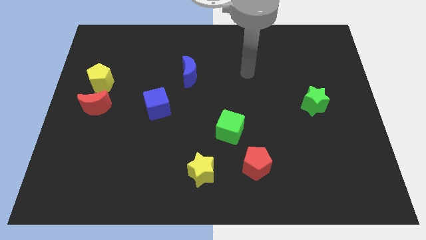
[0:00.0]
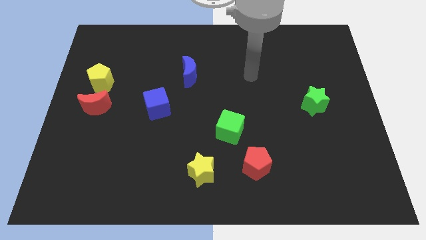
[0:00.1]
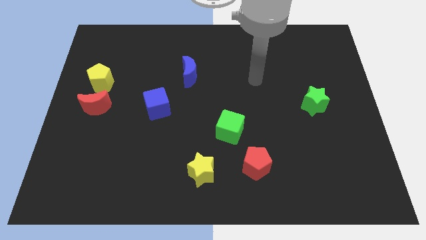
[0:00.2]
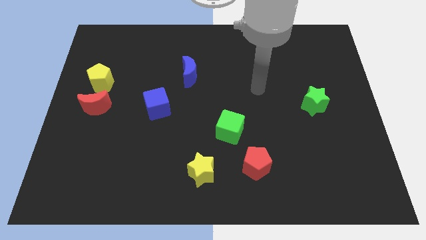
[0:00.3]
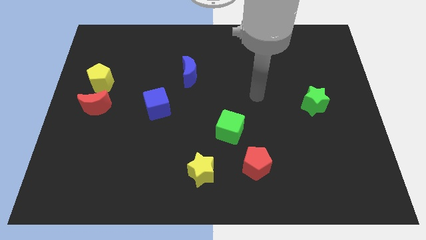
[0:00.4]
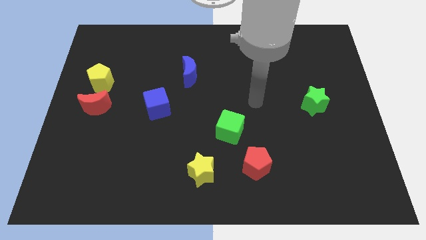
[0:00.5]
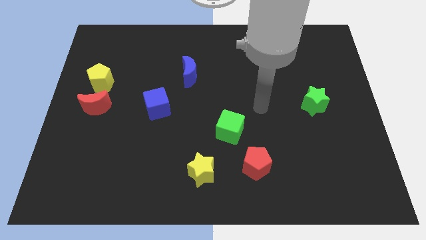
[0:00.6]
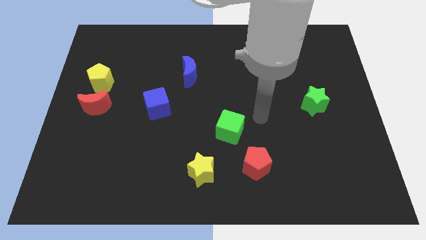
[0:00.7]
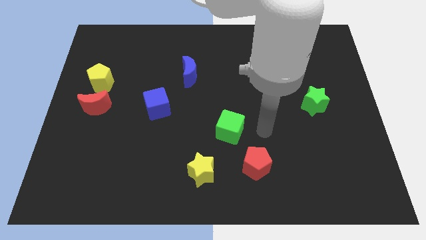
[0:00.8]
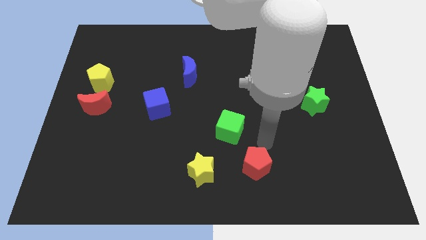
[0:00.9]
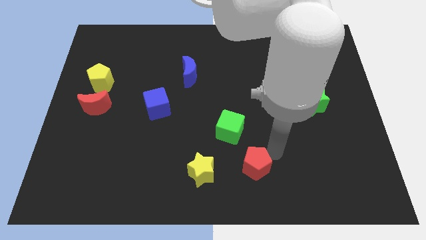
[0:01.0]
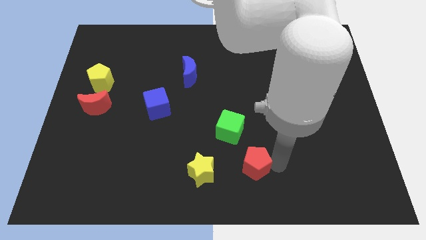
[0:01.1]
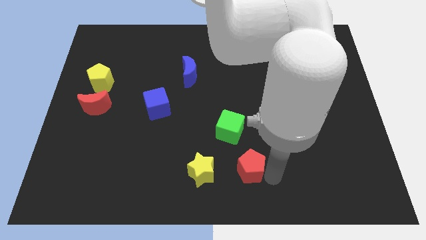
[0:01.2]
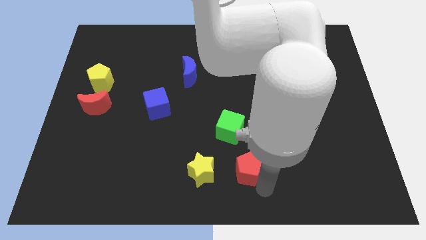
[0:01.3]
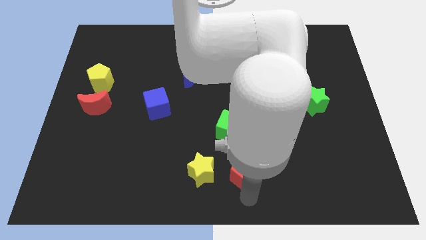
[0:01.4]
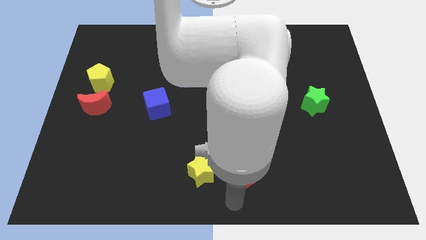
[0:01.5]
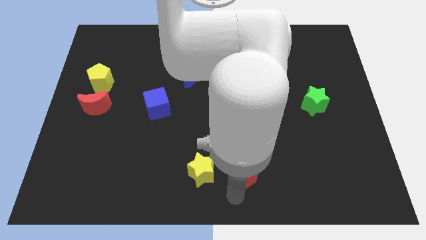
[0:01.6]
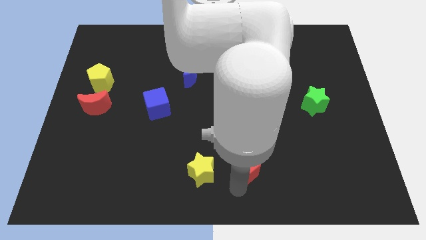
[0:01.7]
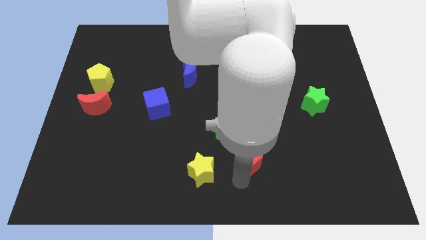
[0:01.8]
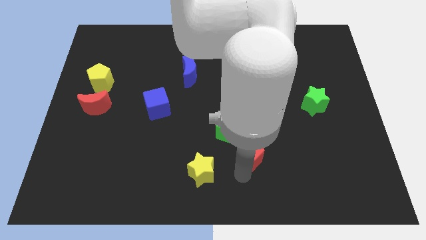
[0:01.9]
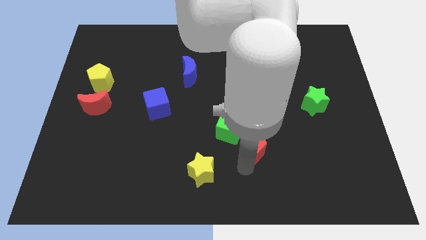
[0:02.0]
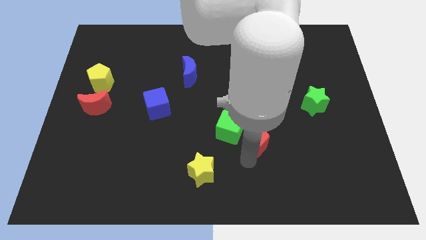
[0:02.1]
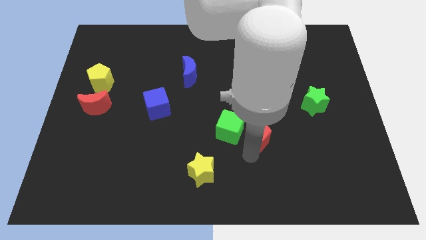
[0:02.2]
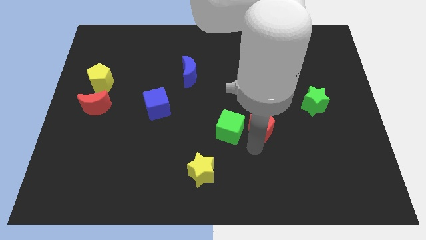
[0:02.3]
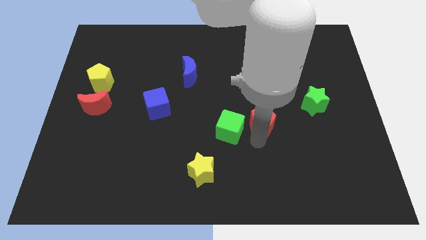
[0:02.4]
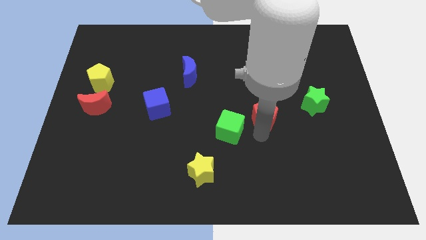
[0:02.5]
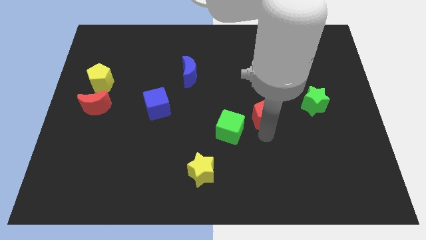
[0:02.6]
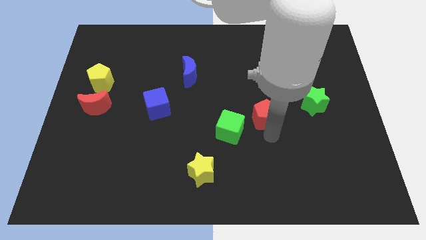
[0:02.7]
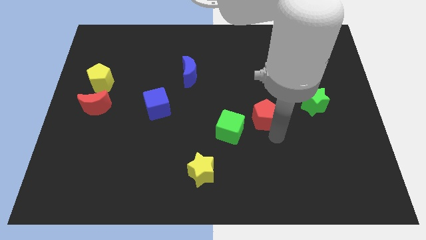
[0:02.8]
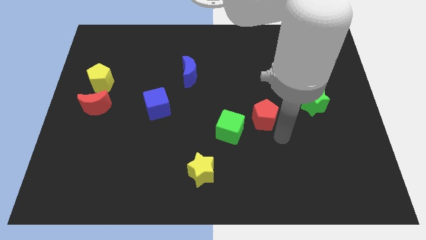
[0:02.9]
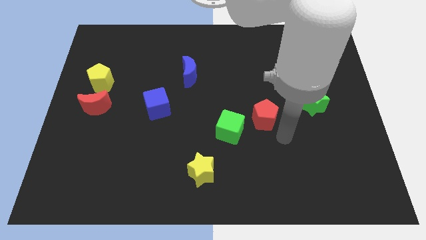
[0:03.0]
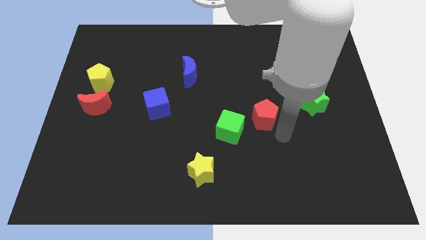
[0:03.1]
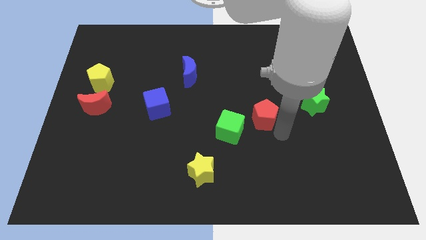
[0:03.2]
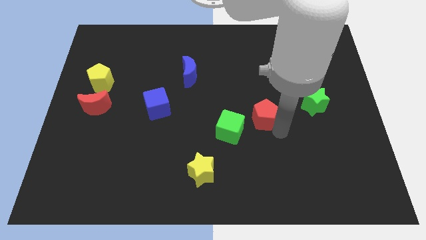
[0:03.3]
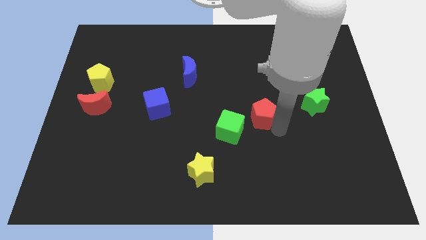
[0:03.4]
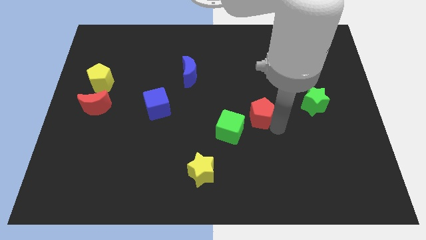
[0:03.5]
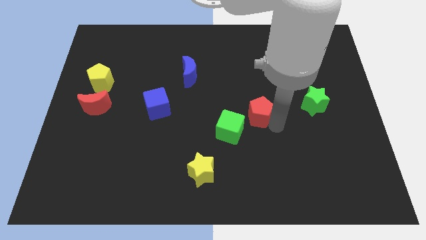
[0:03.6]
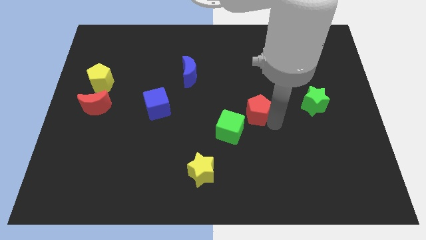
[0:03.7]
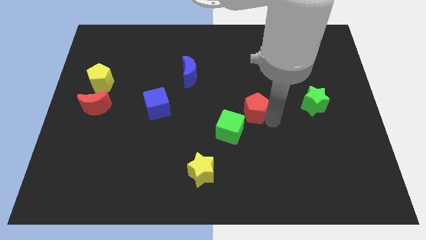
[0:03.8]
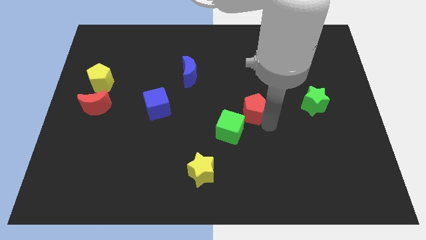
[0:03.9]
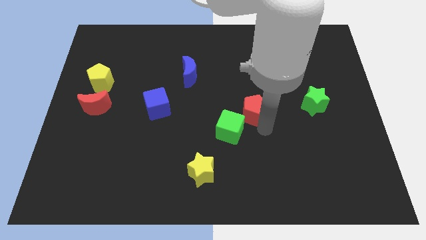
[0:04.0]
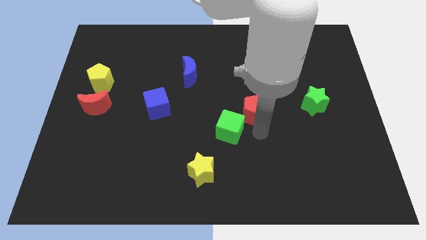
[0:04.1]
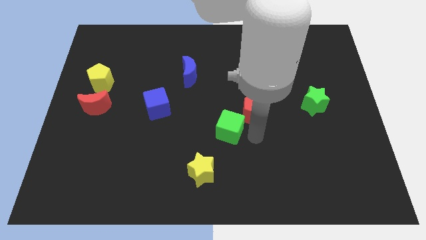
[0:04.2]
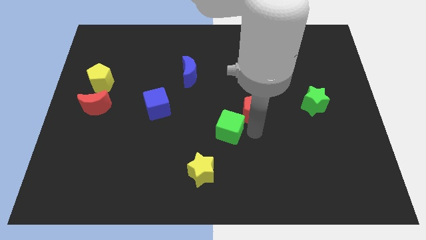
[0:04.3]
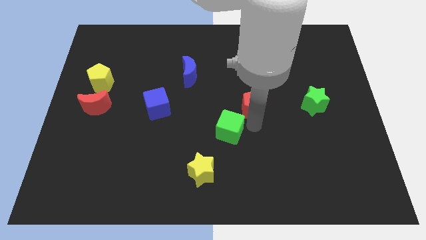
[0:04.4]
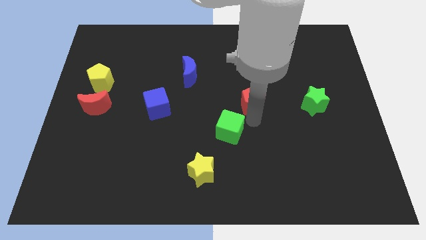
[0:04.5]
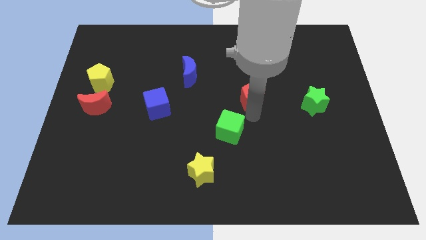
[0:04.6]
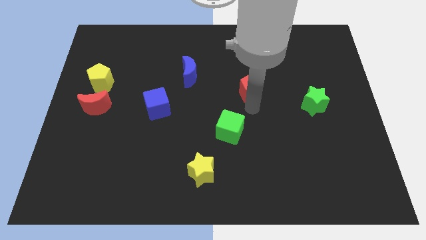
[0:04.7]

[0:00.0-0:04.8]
move the red pentagon upwards

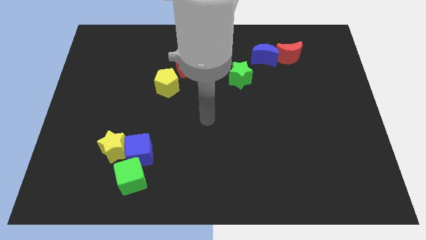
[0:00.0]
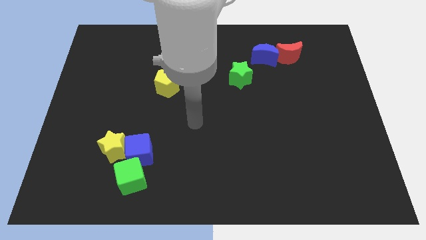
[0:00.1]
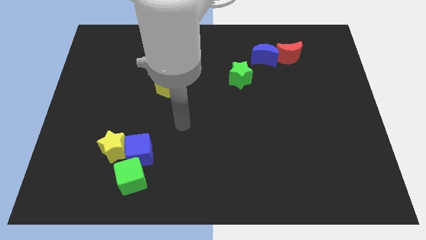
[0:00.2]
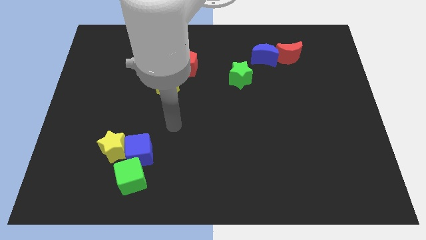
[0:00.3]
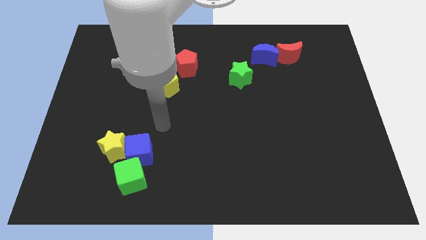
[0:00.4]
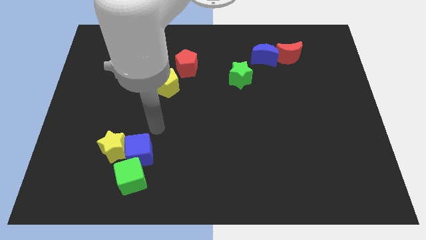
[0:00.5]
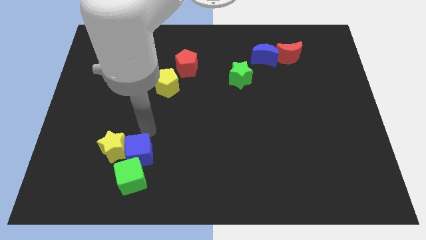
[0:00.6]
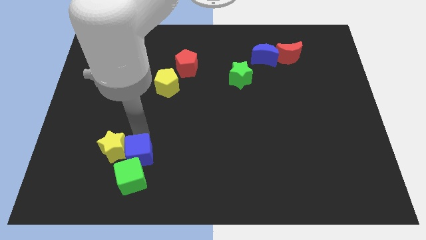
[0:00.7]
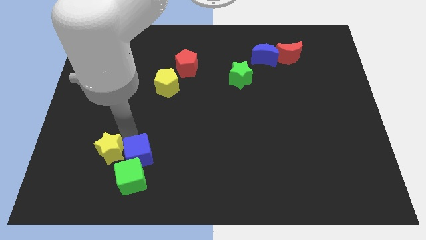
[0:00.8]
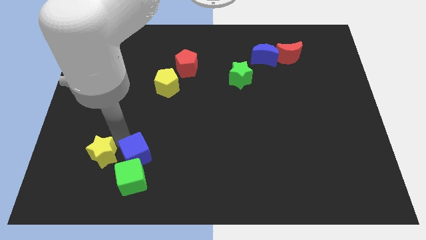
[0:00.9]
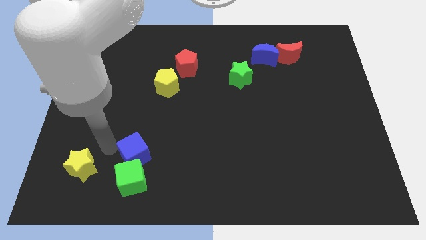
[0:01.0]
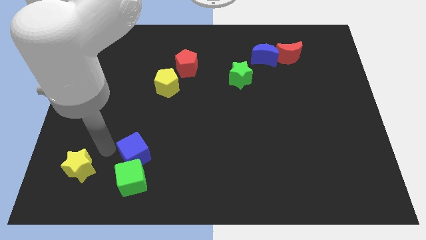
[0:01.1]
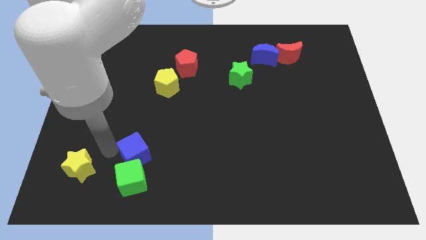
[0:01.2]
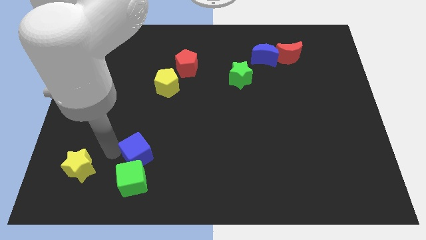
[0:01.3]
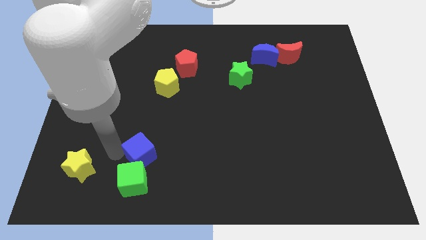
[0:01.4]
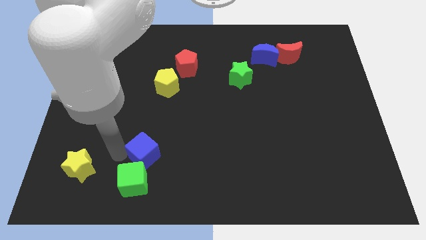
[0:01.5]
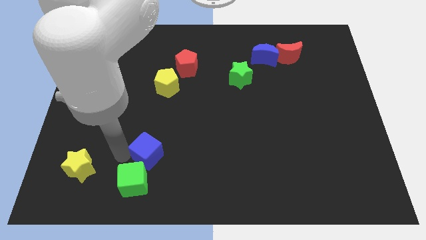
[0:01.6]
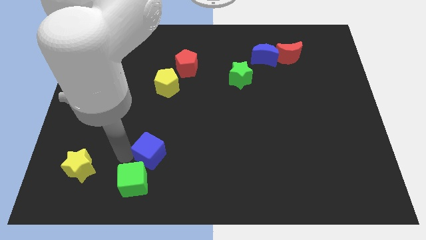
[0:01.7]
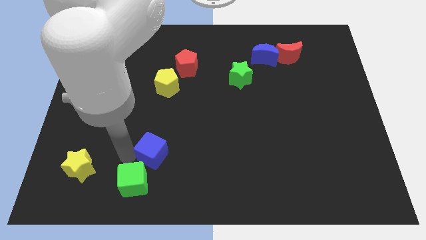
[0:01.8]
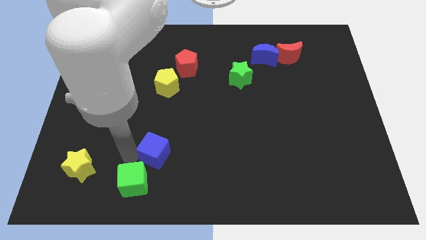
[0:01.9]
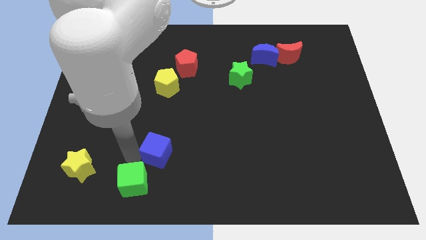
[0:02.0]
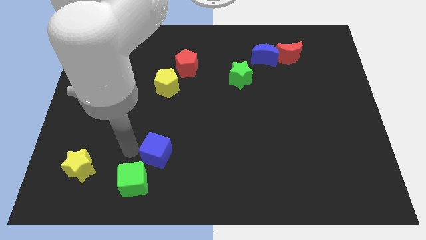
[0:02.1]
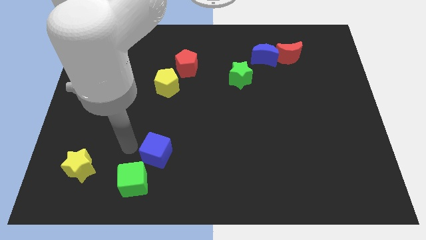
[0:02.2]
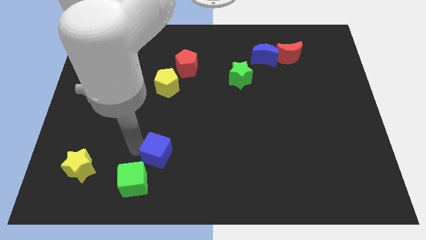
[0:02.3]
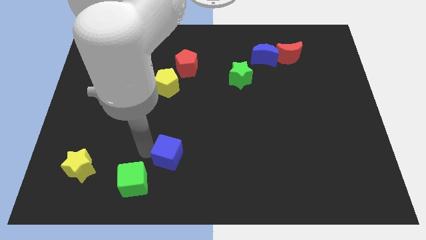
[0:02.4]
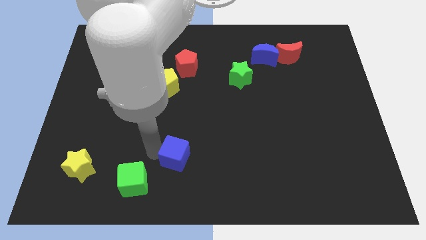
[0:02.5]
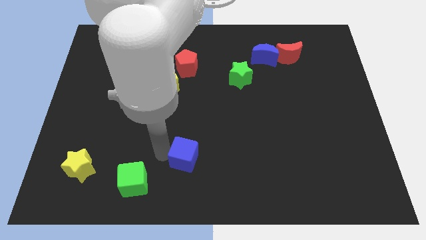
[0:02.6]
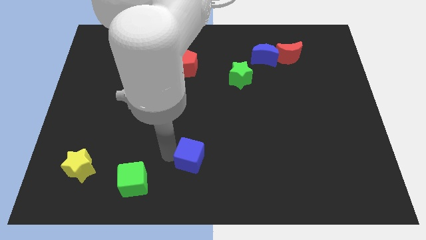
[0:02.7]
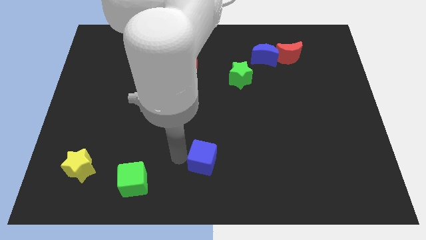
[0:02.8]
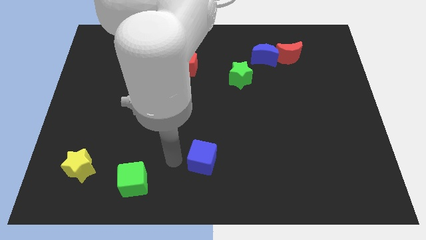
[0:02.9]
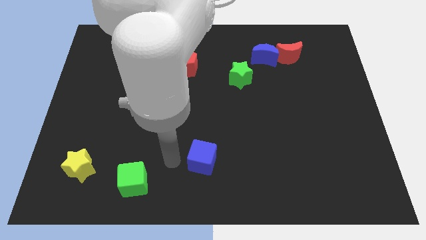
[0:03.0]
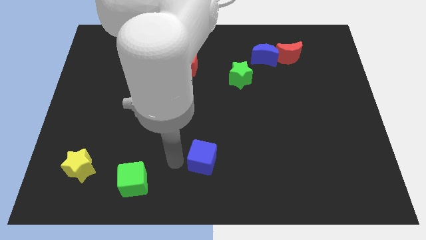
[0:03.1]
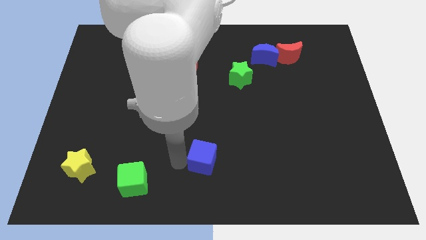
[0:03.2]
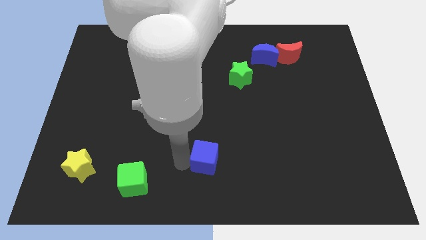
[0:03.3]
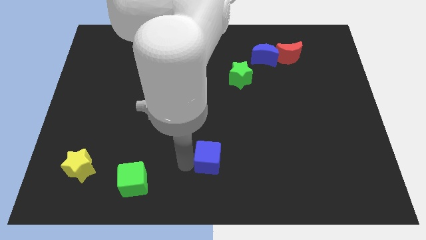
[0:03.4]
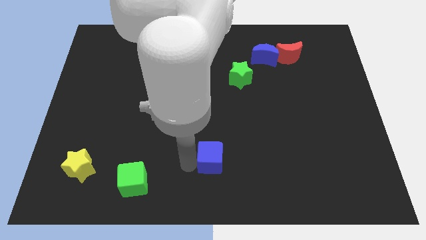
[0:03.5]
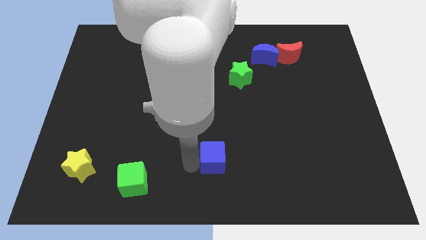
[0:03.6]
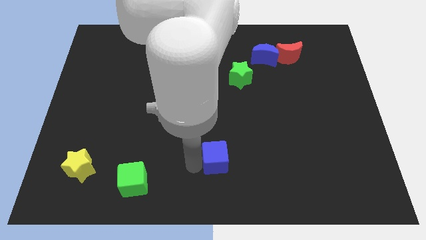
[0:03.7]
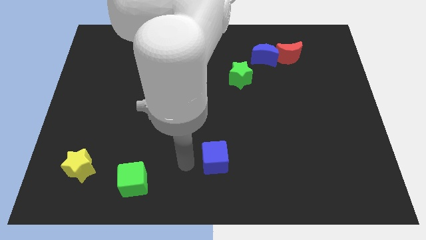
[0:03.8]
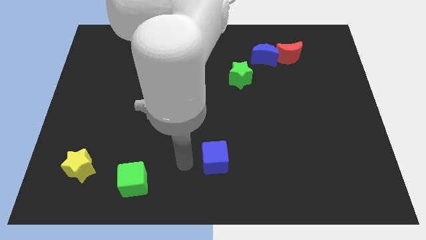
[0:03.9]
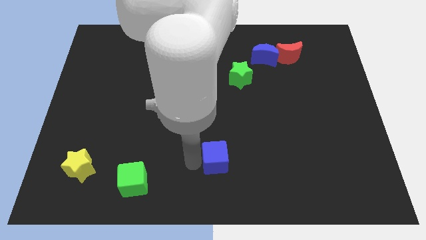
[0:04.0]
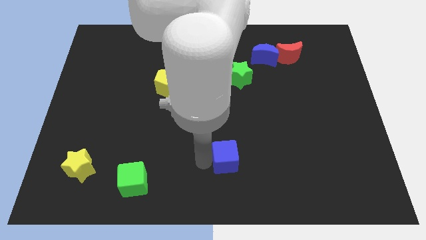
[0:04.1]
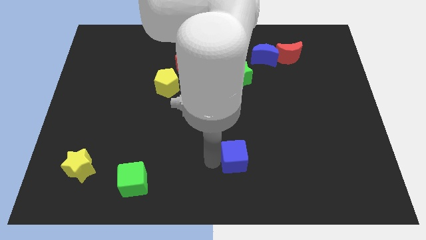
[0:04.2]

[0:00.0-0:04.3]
move the blue cube right
